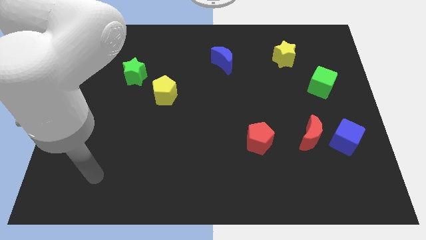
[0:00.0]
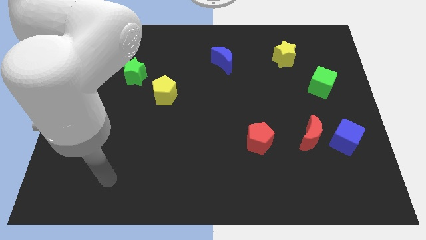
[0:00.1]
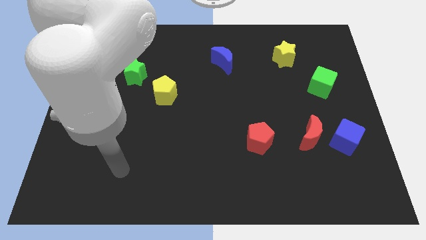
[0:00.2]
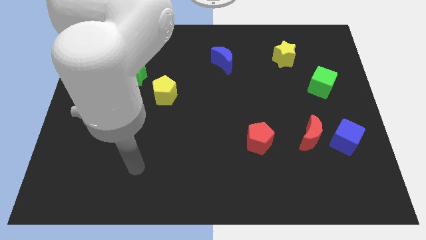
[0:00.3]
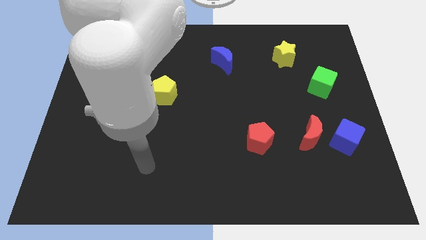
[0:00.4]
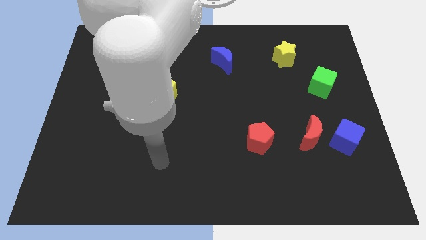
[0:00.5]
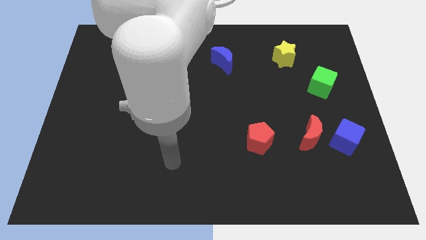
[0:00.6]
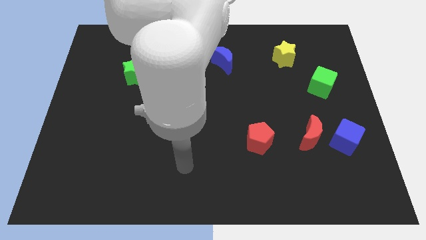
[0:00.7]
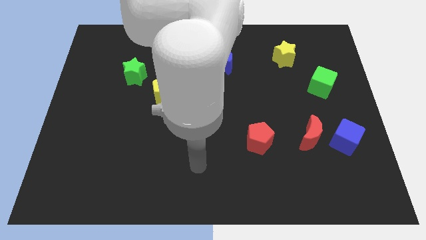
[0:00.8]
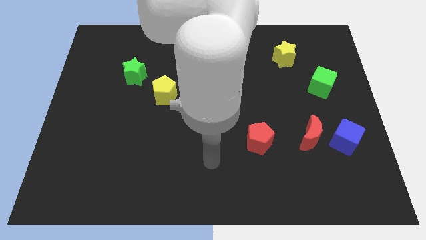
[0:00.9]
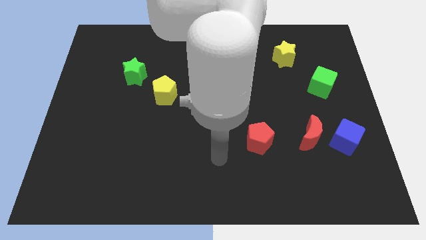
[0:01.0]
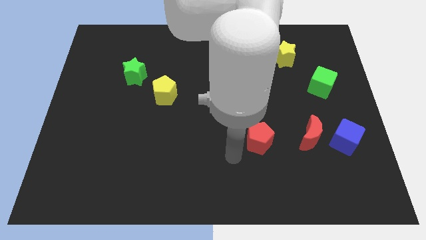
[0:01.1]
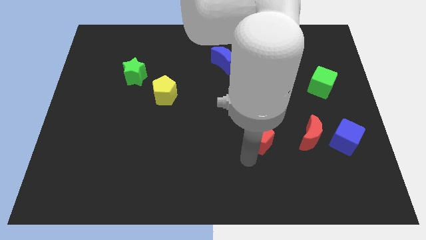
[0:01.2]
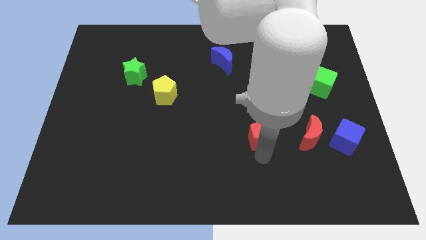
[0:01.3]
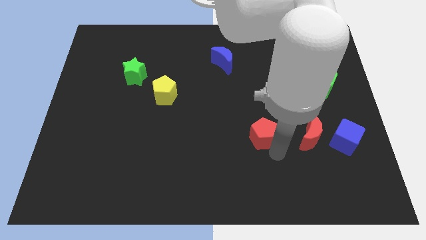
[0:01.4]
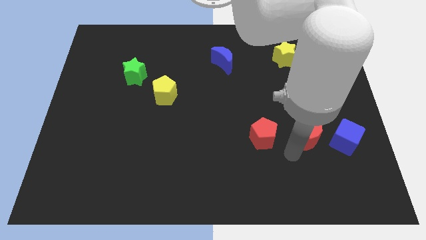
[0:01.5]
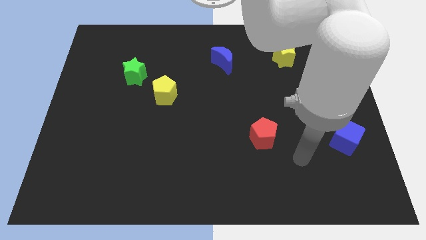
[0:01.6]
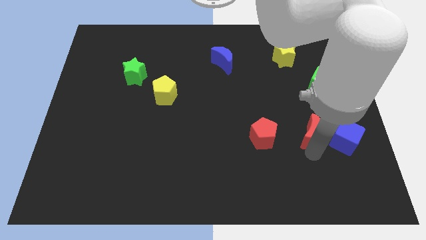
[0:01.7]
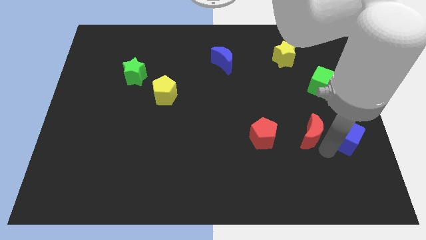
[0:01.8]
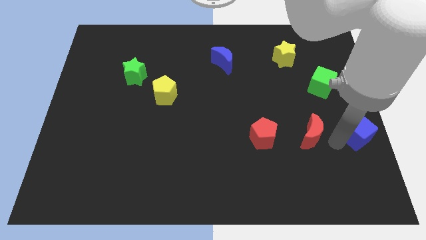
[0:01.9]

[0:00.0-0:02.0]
separate the red moon from the blue cube

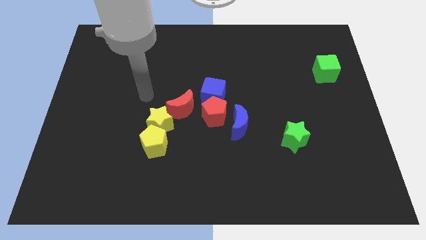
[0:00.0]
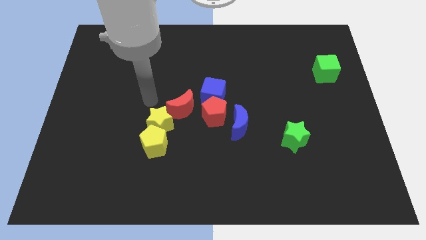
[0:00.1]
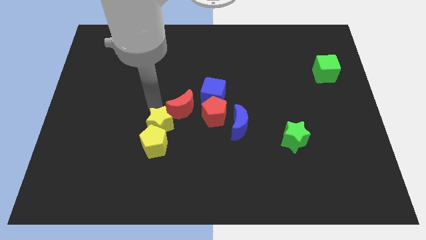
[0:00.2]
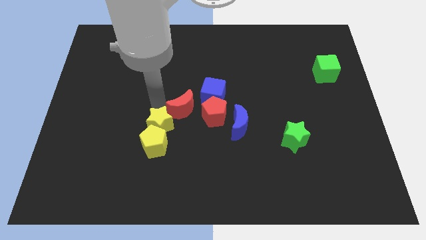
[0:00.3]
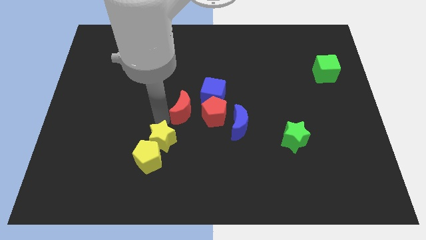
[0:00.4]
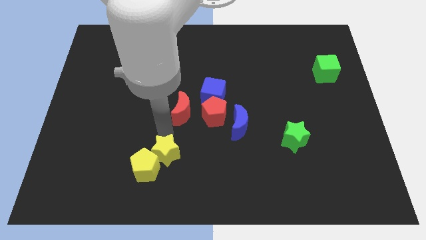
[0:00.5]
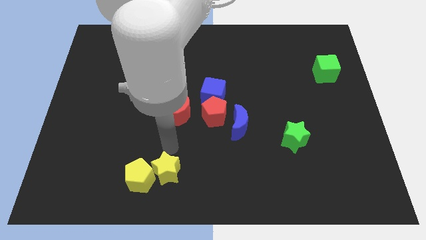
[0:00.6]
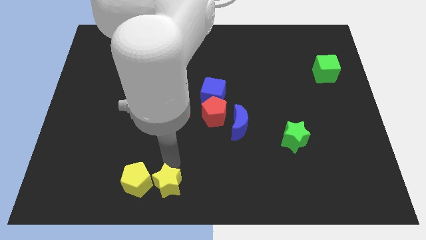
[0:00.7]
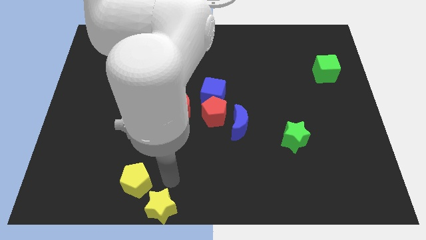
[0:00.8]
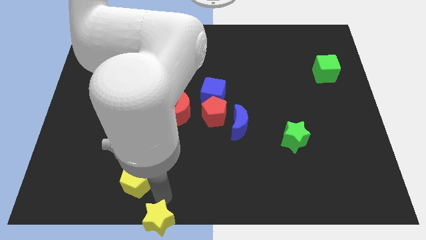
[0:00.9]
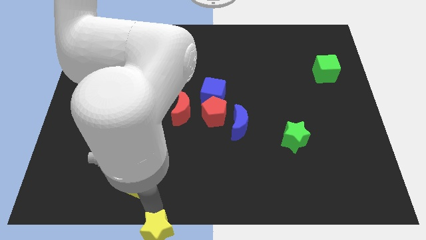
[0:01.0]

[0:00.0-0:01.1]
pull the yellow pentagon apart from the yellow star

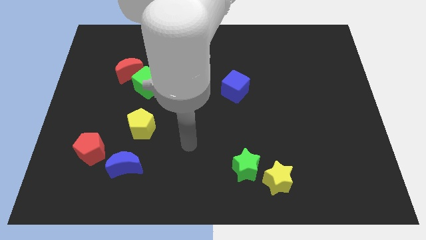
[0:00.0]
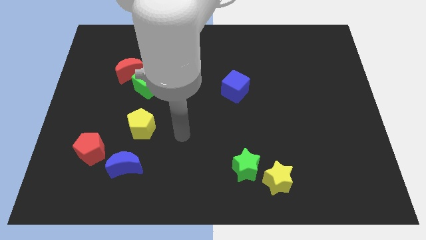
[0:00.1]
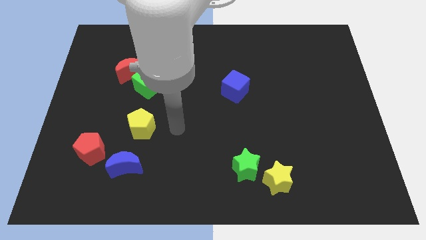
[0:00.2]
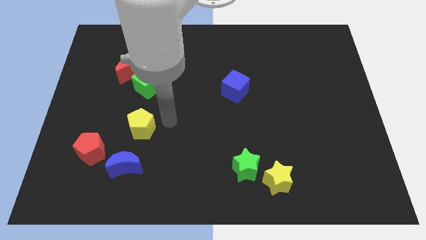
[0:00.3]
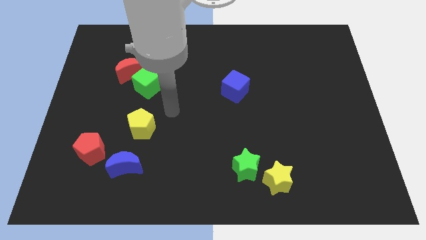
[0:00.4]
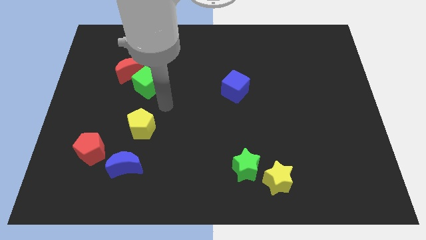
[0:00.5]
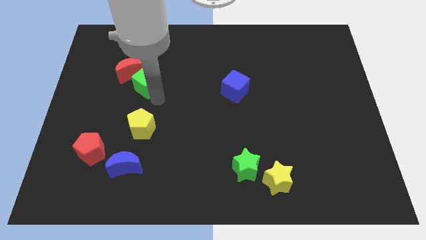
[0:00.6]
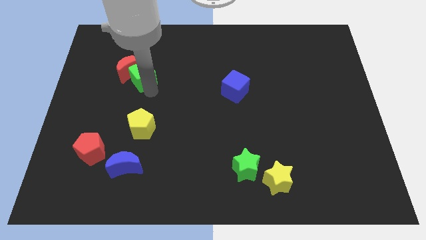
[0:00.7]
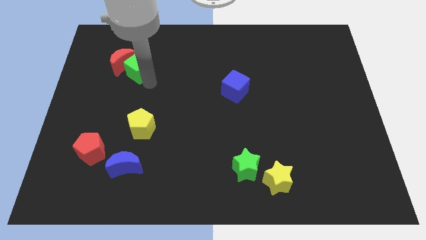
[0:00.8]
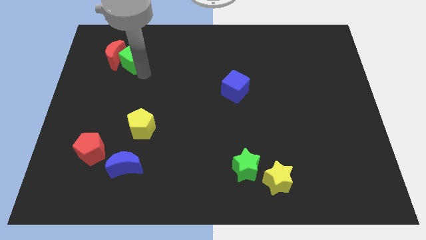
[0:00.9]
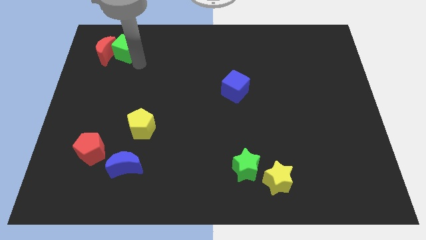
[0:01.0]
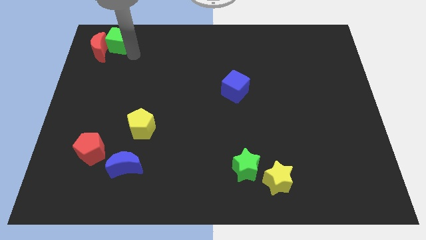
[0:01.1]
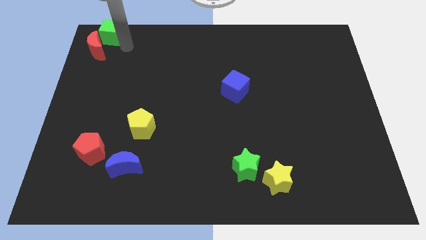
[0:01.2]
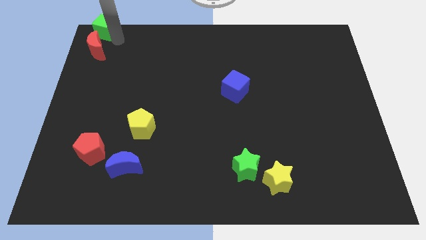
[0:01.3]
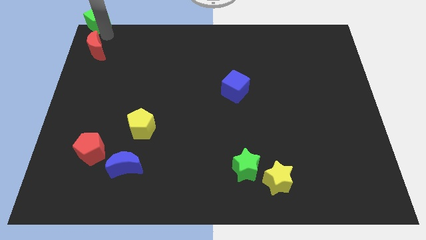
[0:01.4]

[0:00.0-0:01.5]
move the red moon away from the green cube

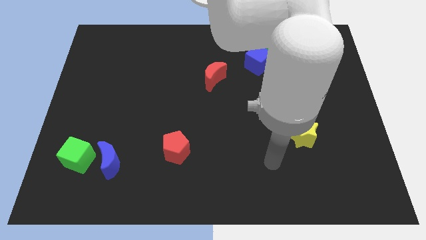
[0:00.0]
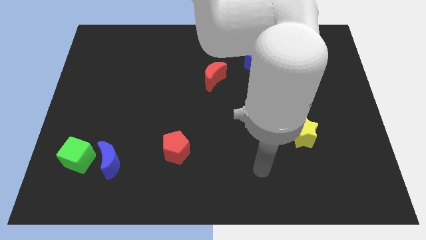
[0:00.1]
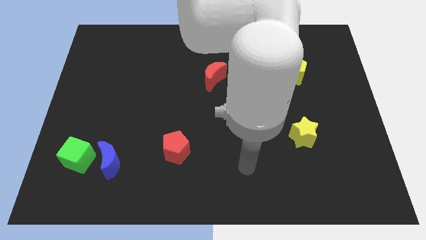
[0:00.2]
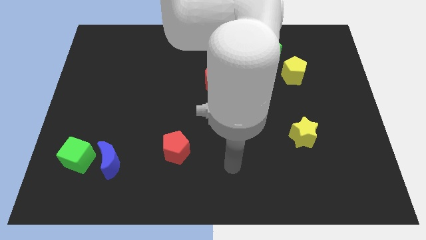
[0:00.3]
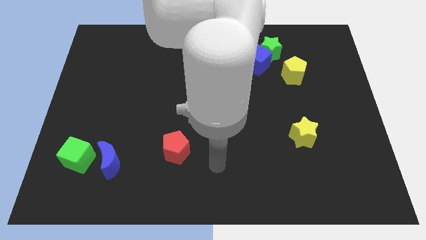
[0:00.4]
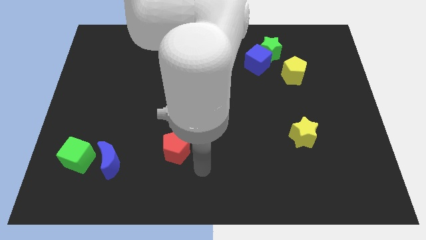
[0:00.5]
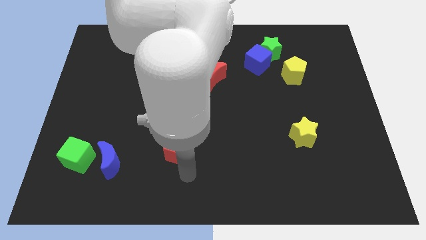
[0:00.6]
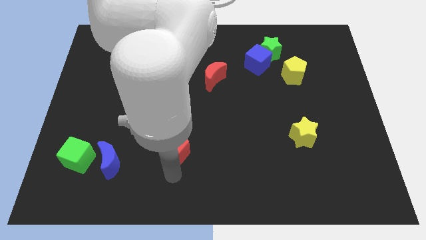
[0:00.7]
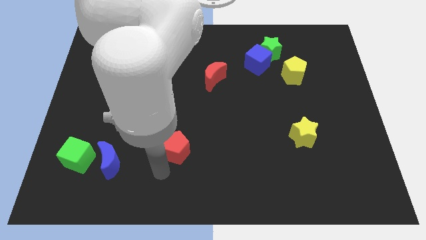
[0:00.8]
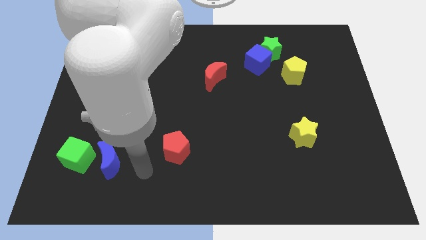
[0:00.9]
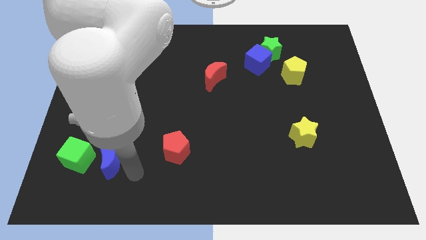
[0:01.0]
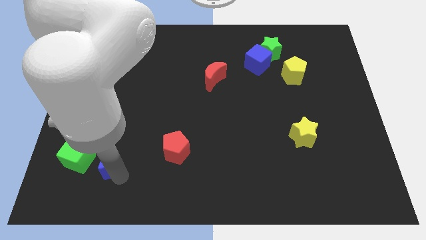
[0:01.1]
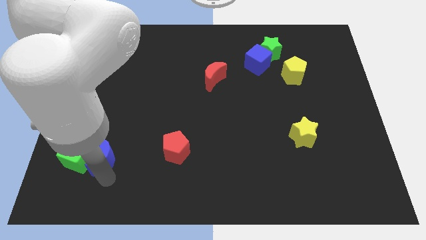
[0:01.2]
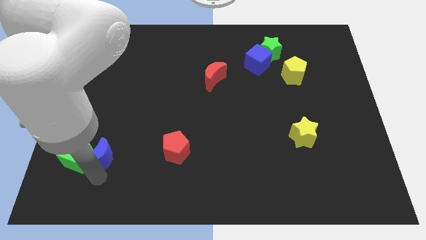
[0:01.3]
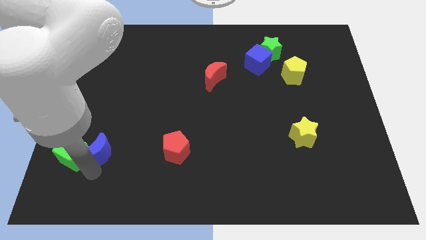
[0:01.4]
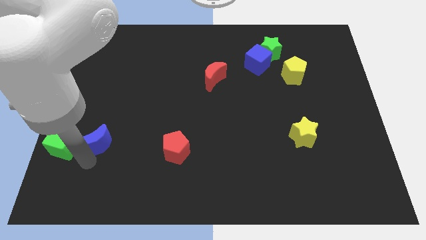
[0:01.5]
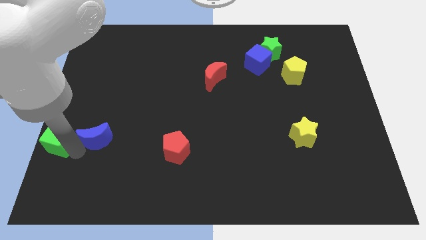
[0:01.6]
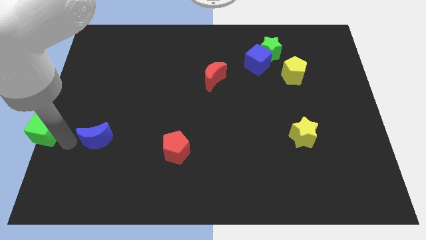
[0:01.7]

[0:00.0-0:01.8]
separate the blue moon from the green cube

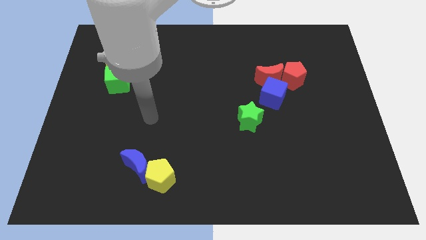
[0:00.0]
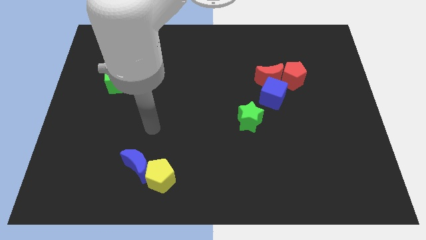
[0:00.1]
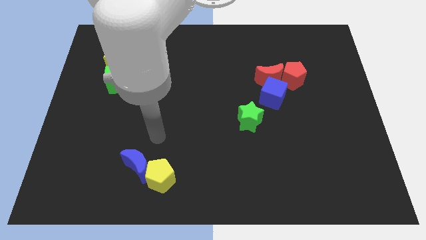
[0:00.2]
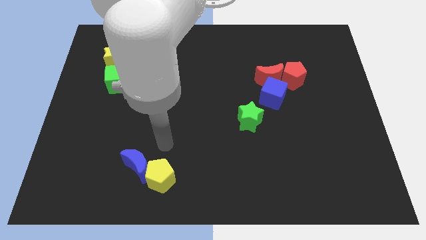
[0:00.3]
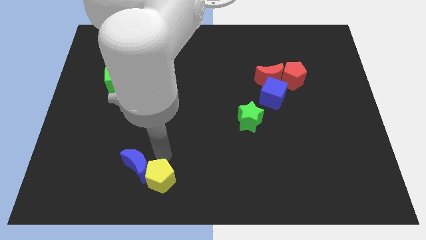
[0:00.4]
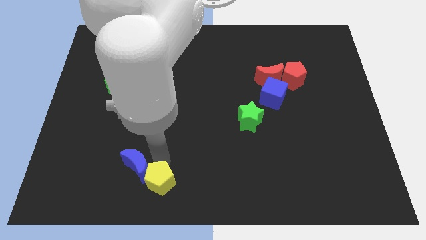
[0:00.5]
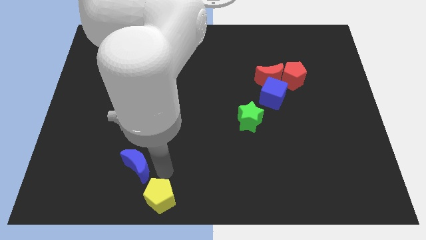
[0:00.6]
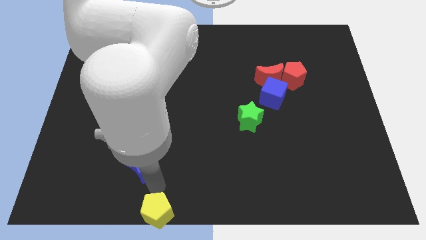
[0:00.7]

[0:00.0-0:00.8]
separate the blue moon from the yellow pentagon

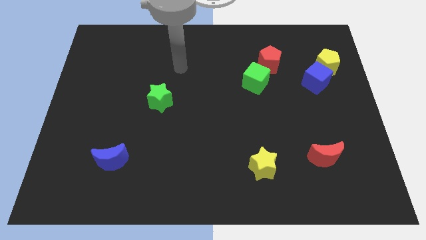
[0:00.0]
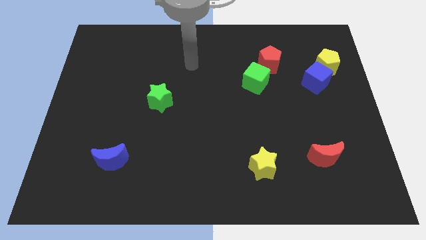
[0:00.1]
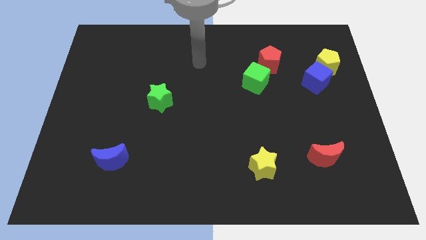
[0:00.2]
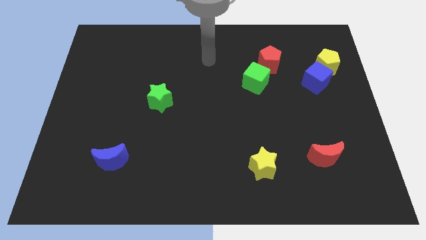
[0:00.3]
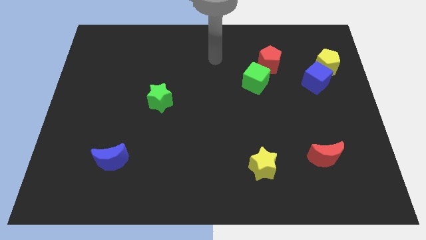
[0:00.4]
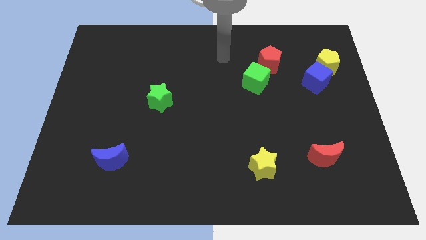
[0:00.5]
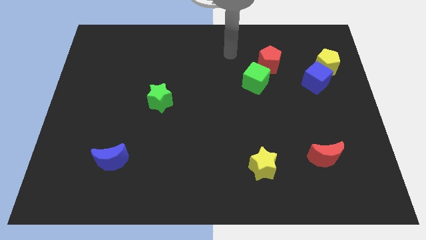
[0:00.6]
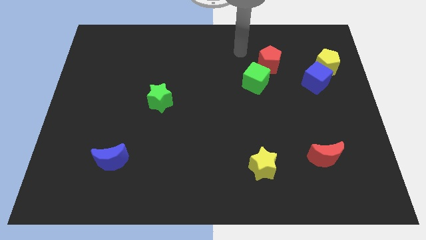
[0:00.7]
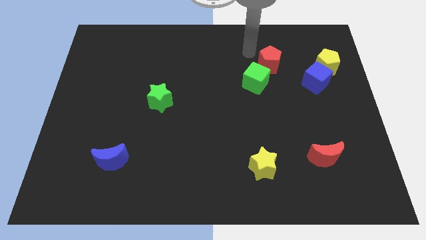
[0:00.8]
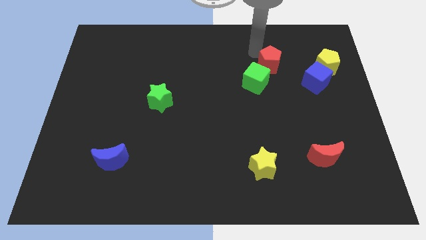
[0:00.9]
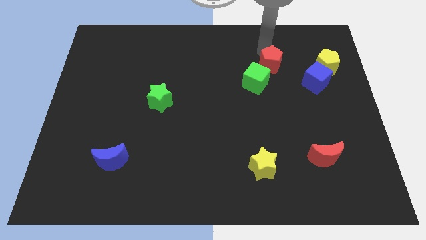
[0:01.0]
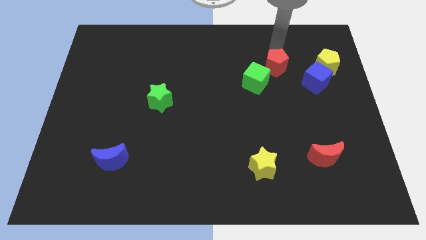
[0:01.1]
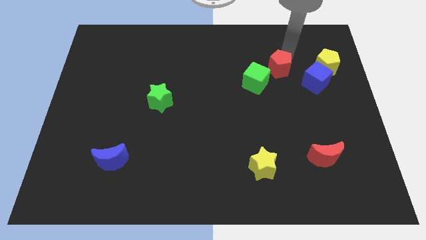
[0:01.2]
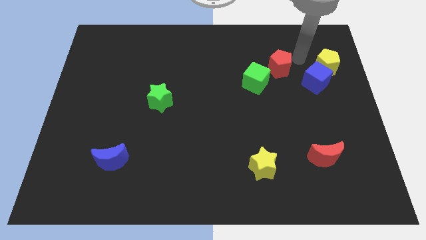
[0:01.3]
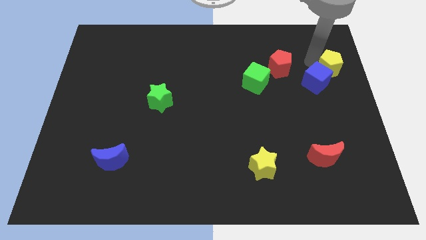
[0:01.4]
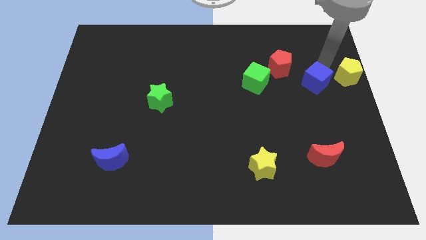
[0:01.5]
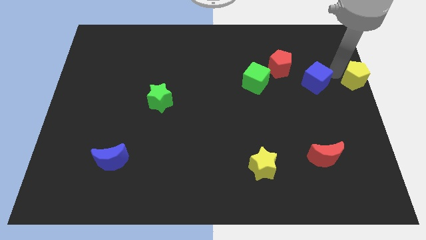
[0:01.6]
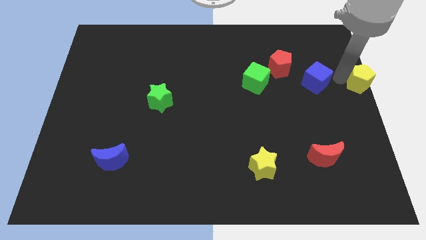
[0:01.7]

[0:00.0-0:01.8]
pull the blue cube apart from the yellow pentagon

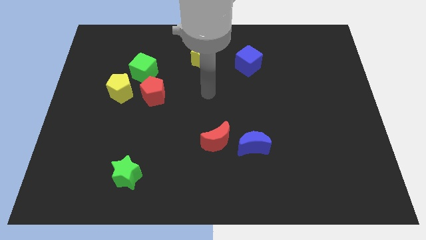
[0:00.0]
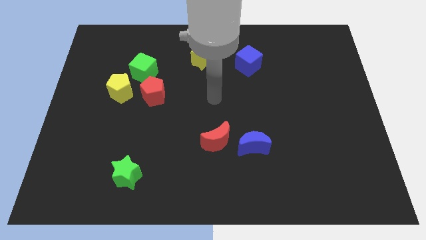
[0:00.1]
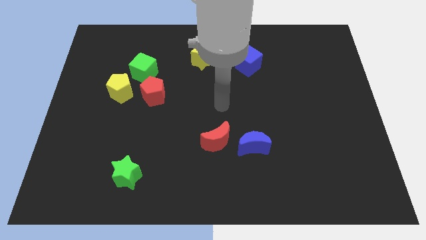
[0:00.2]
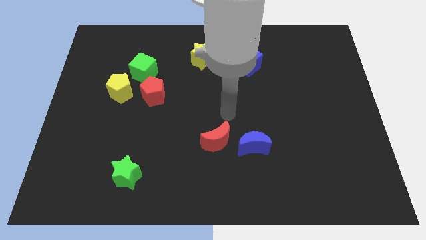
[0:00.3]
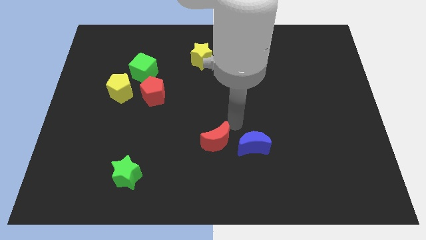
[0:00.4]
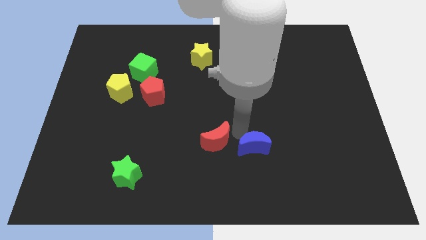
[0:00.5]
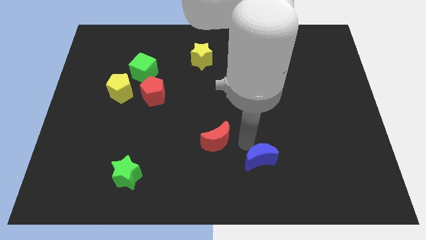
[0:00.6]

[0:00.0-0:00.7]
pull the red moon apart from the blue moon
